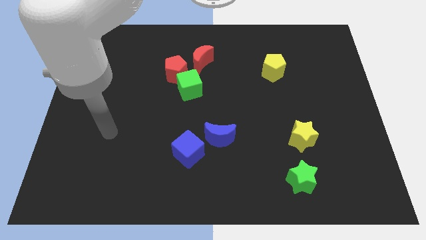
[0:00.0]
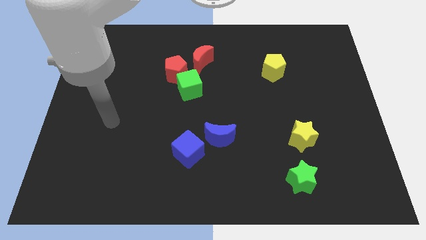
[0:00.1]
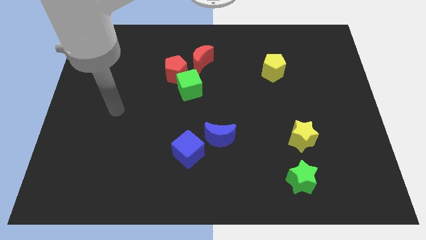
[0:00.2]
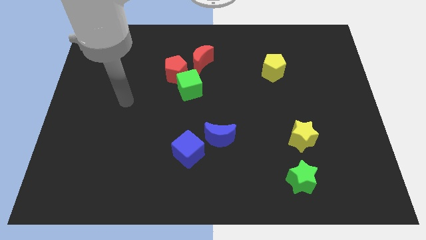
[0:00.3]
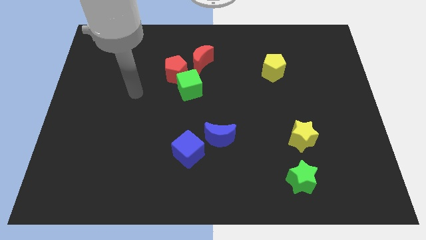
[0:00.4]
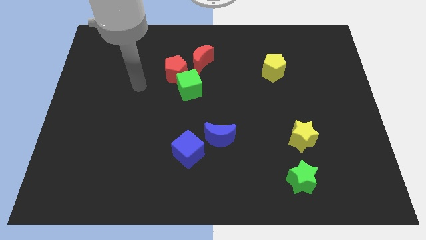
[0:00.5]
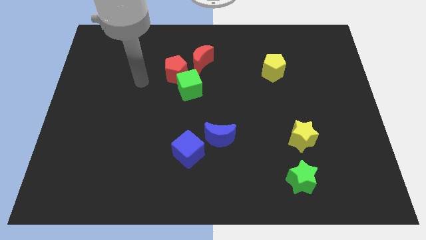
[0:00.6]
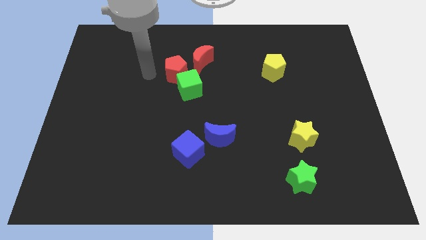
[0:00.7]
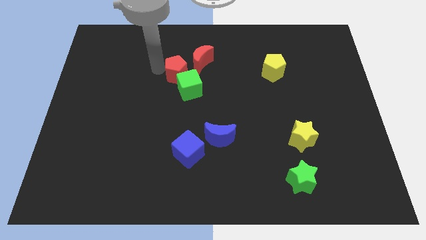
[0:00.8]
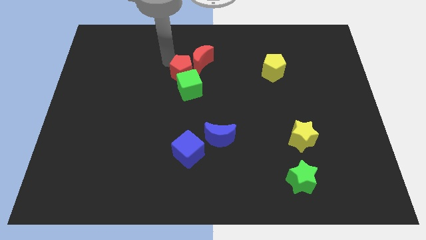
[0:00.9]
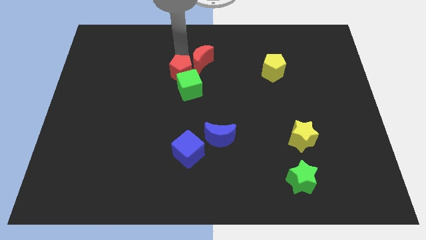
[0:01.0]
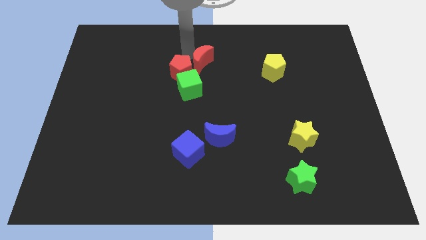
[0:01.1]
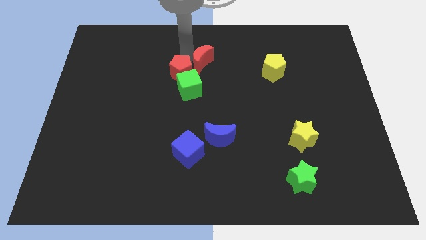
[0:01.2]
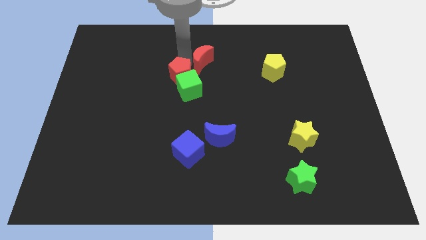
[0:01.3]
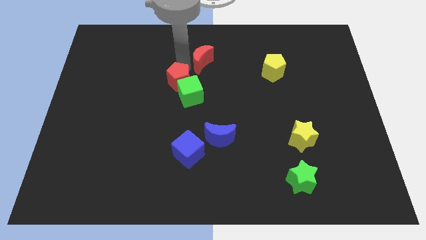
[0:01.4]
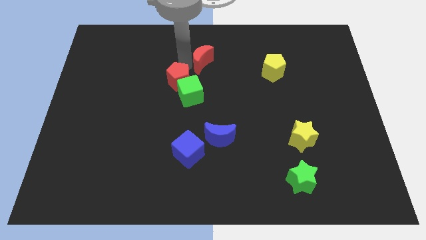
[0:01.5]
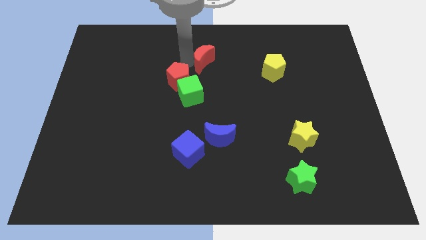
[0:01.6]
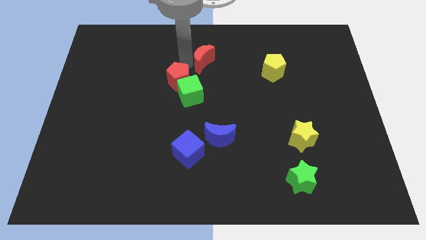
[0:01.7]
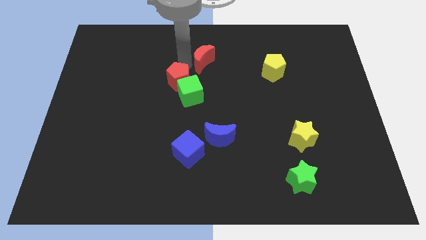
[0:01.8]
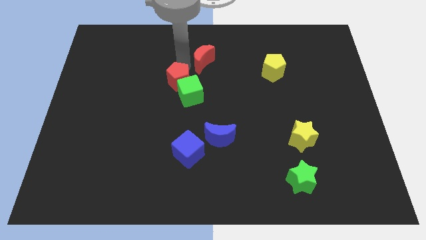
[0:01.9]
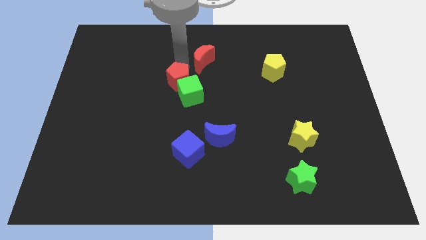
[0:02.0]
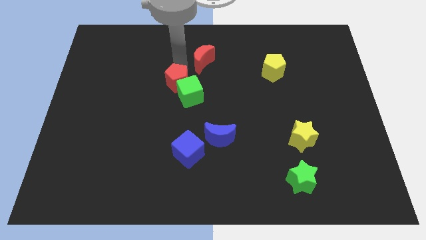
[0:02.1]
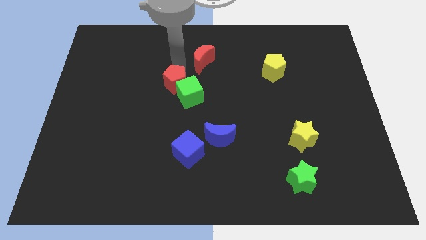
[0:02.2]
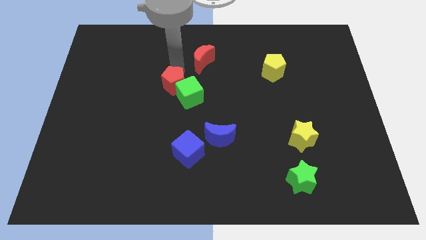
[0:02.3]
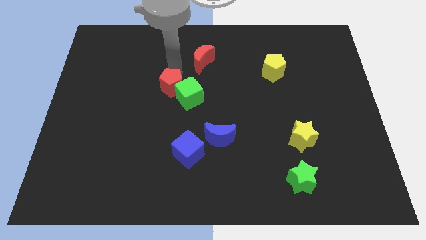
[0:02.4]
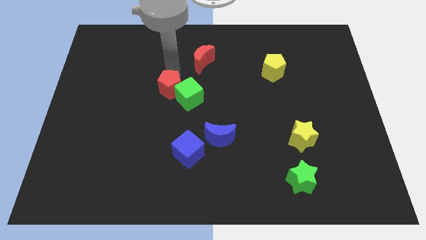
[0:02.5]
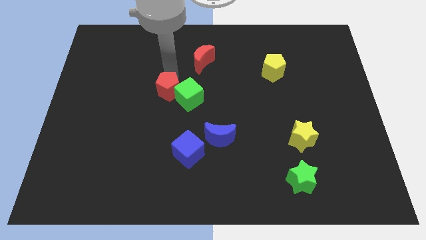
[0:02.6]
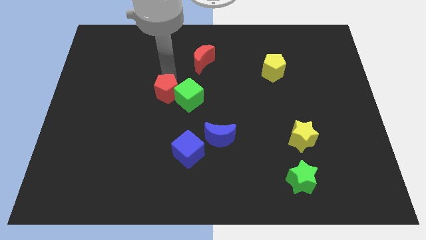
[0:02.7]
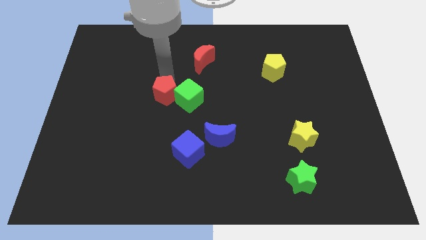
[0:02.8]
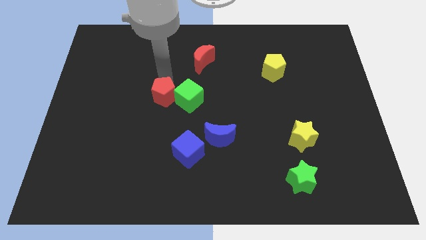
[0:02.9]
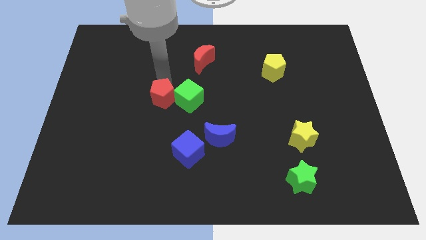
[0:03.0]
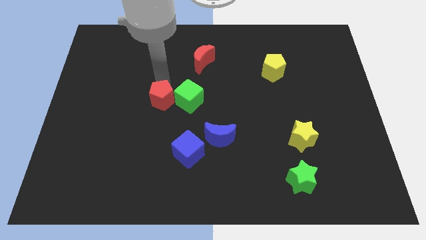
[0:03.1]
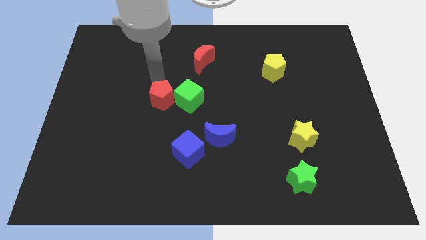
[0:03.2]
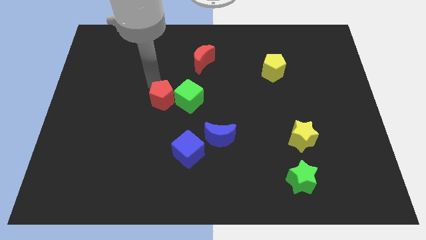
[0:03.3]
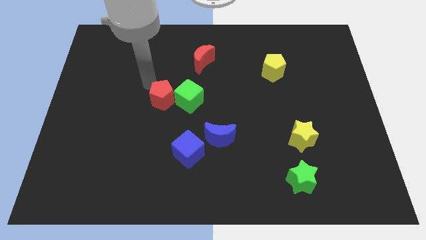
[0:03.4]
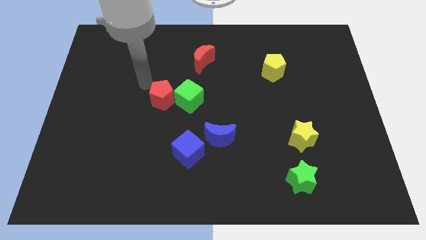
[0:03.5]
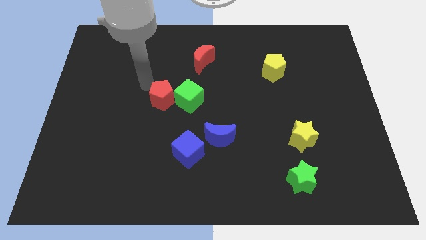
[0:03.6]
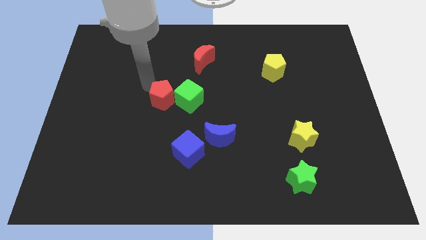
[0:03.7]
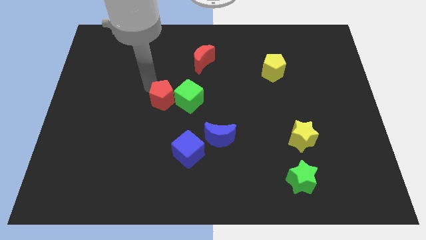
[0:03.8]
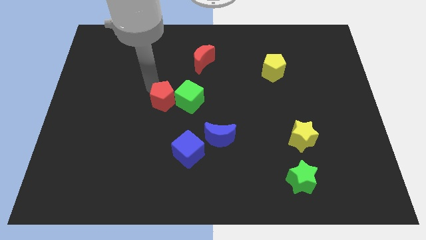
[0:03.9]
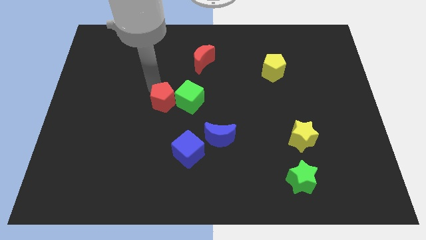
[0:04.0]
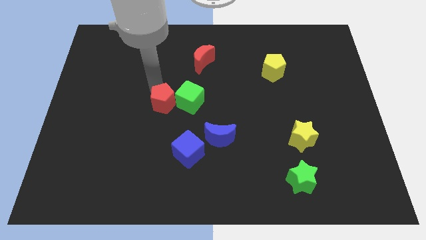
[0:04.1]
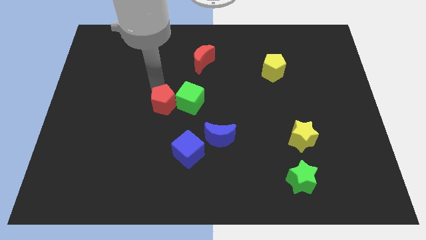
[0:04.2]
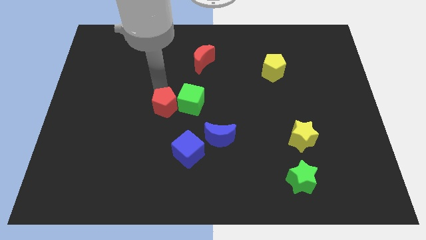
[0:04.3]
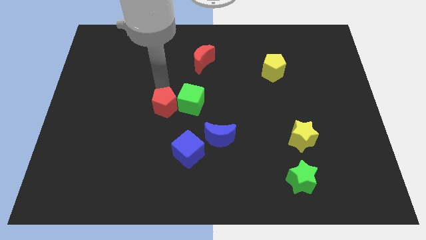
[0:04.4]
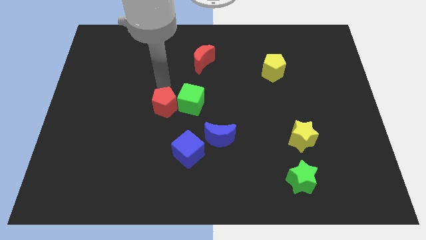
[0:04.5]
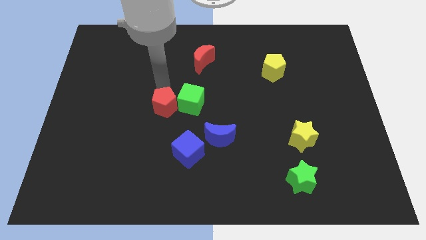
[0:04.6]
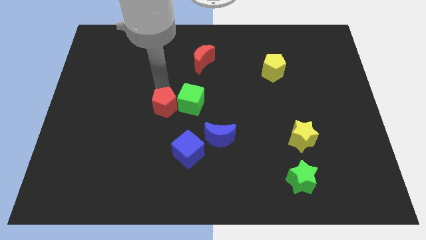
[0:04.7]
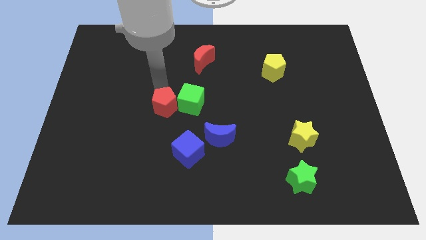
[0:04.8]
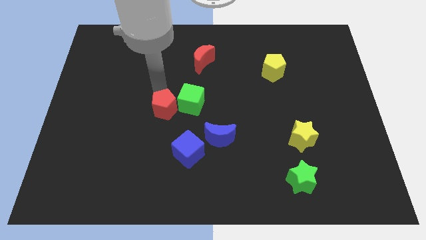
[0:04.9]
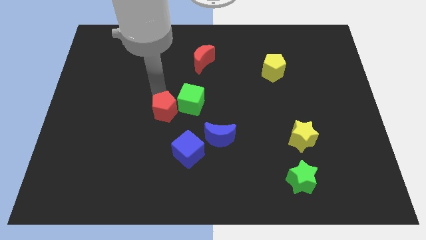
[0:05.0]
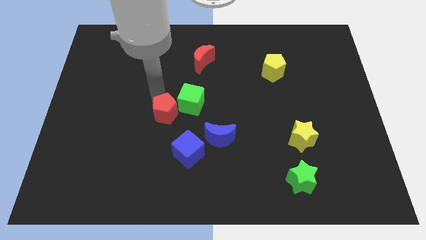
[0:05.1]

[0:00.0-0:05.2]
move the red pentagon to the top left of the blue cube

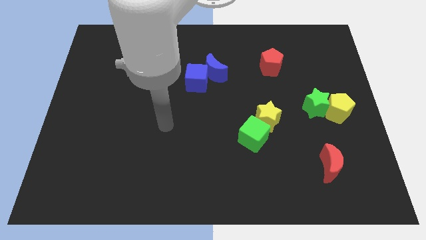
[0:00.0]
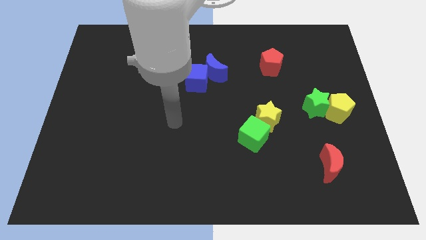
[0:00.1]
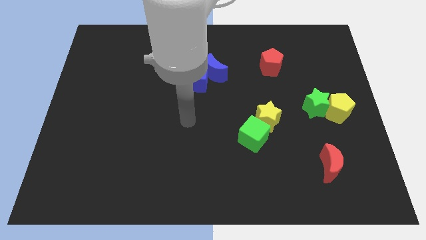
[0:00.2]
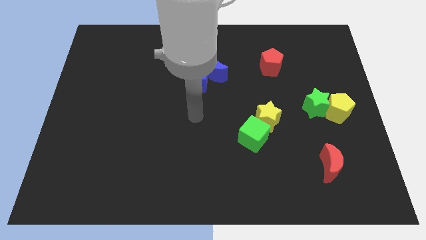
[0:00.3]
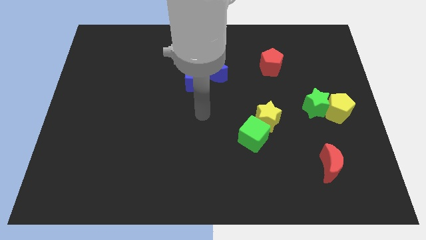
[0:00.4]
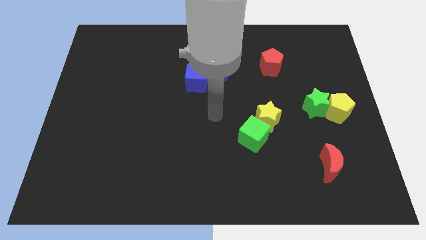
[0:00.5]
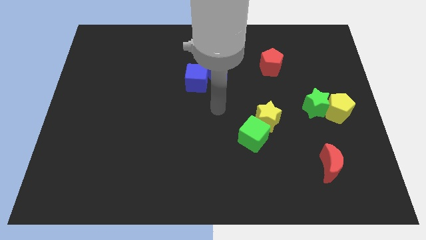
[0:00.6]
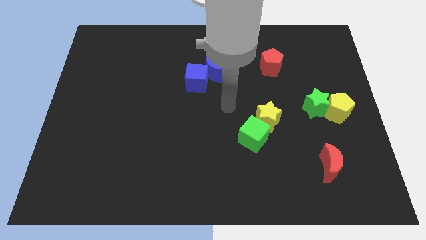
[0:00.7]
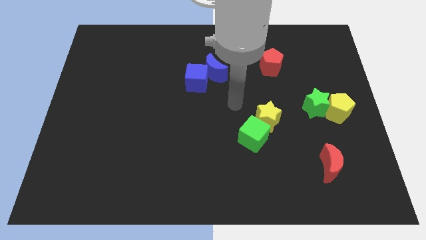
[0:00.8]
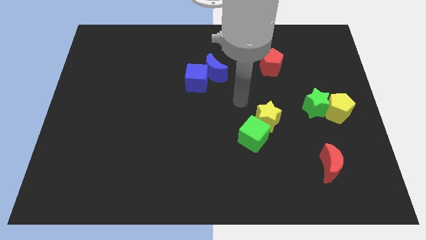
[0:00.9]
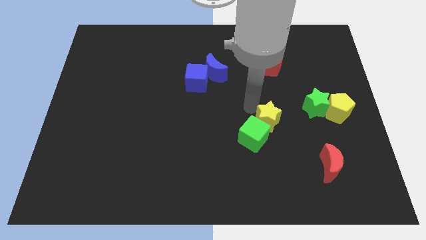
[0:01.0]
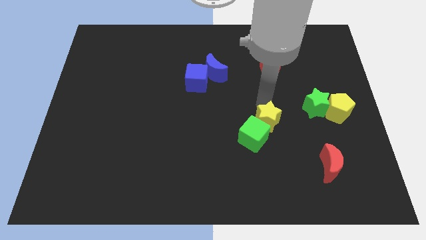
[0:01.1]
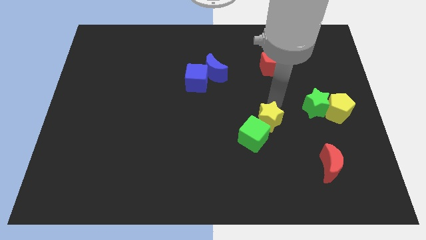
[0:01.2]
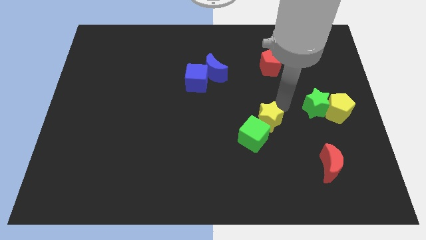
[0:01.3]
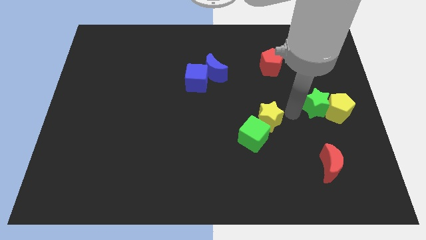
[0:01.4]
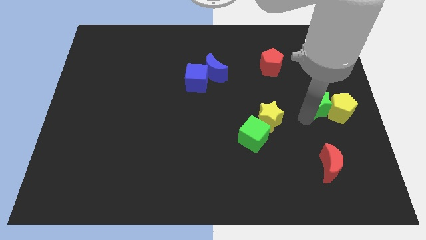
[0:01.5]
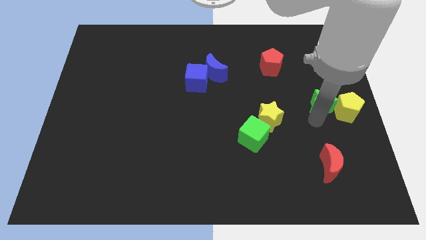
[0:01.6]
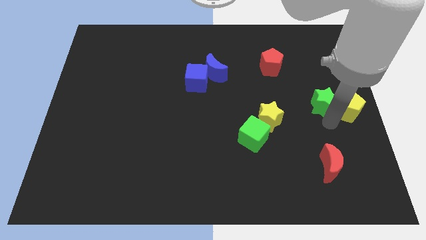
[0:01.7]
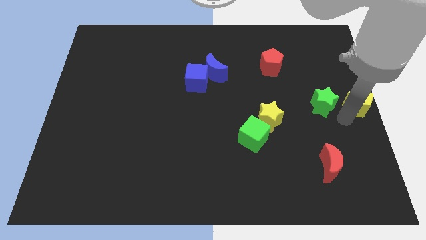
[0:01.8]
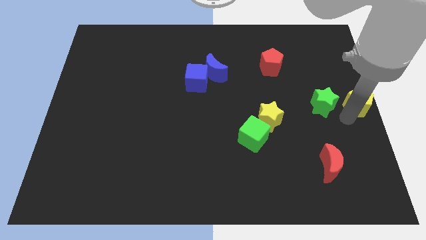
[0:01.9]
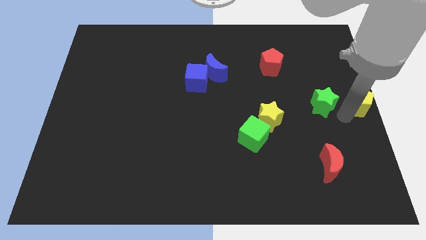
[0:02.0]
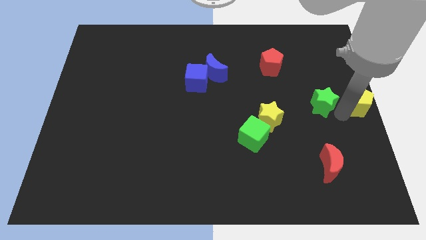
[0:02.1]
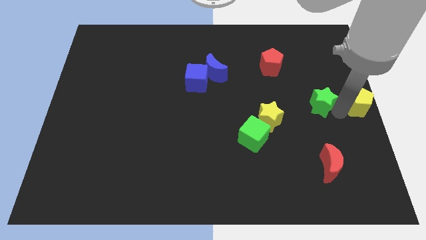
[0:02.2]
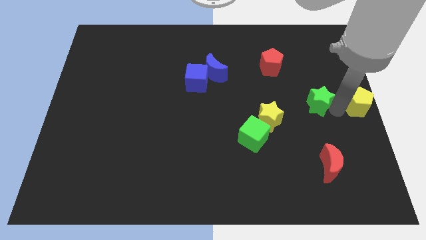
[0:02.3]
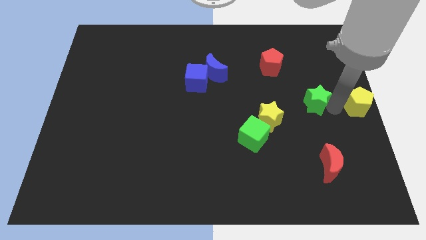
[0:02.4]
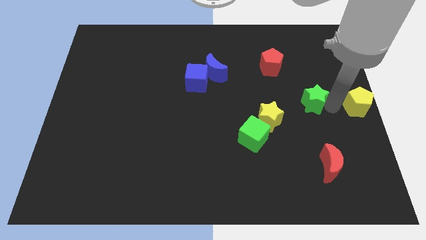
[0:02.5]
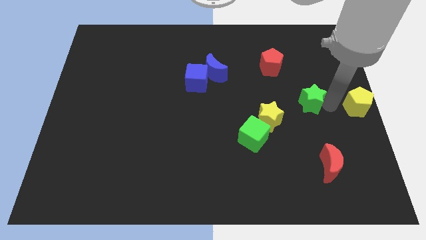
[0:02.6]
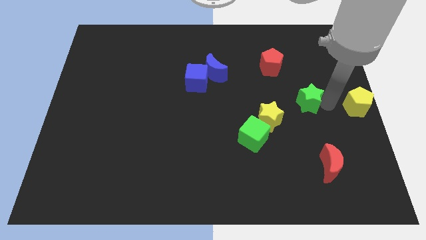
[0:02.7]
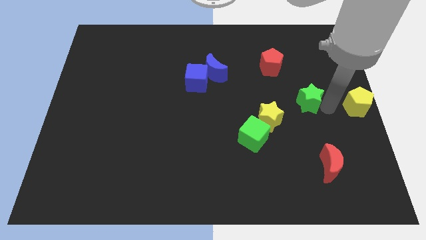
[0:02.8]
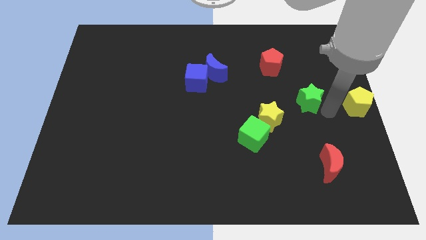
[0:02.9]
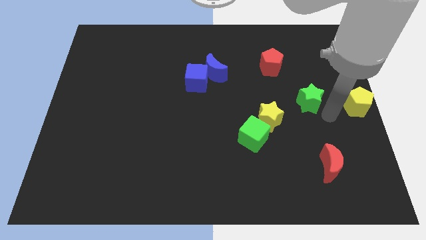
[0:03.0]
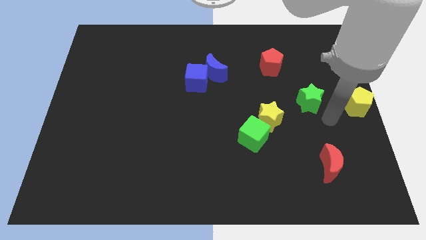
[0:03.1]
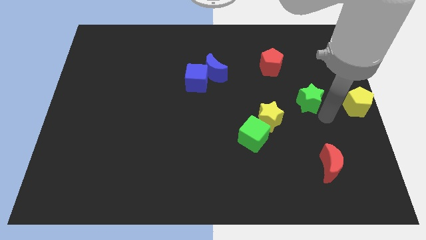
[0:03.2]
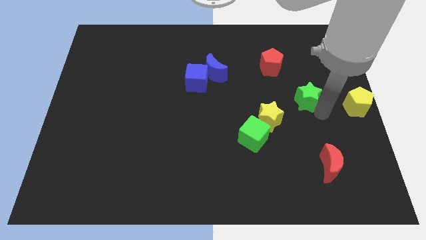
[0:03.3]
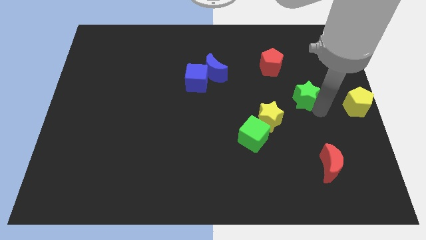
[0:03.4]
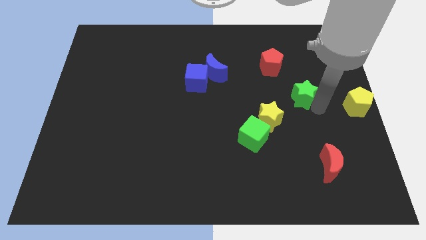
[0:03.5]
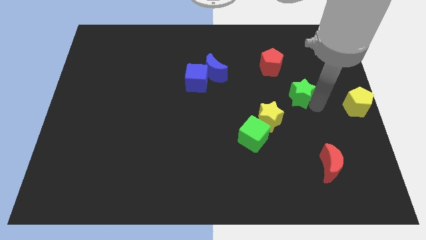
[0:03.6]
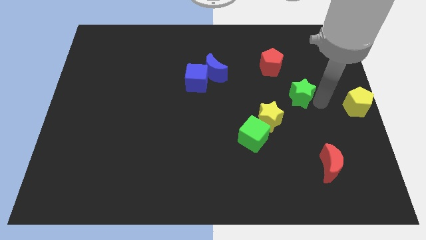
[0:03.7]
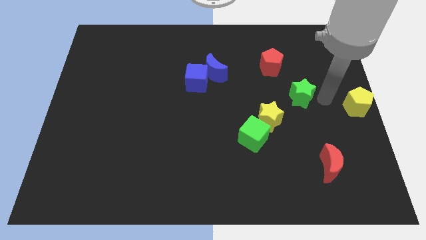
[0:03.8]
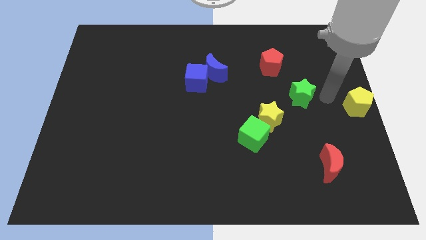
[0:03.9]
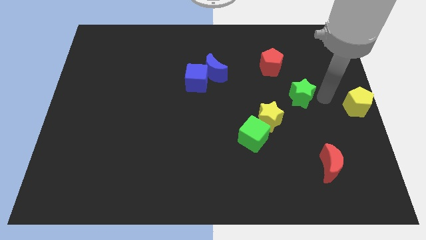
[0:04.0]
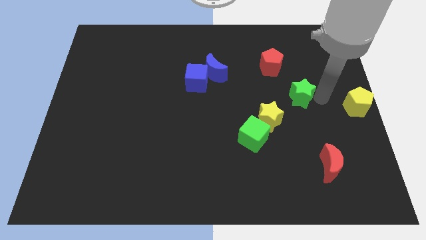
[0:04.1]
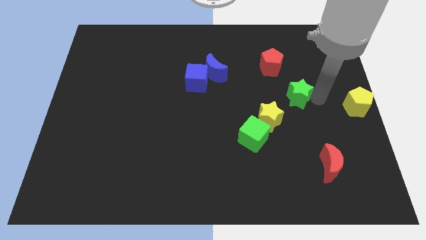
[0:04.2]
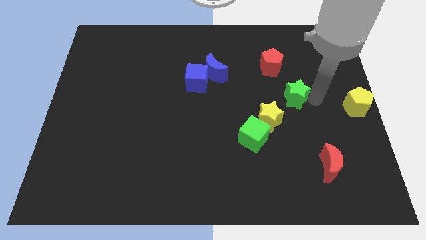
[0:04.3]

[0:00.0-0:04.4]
move the green star below the red pentagon
